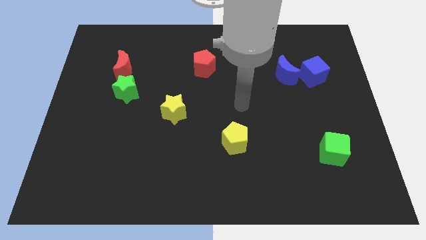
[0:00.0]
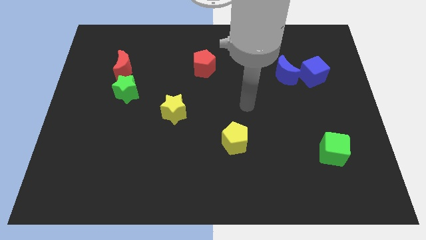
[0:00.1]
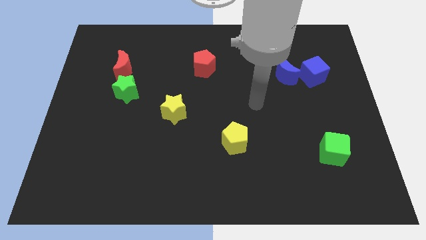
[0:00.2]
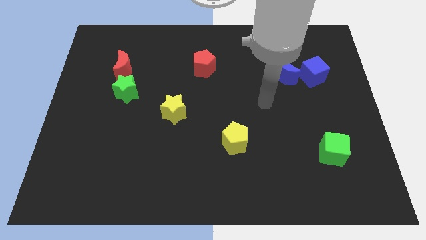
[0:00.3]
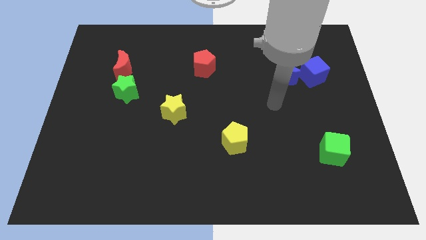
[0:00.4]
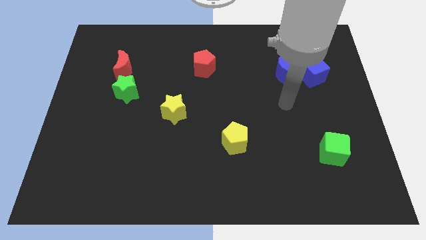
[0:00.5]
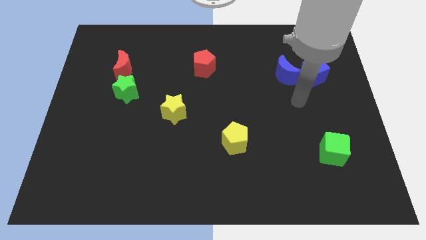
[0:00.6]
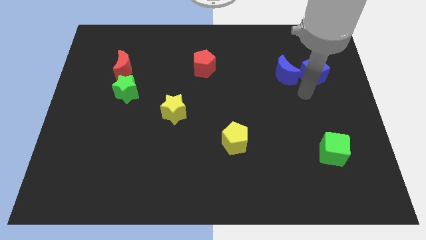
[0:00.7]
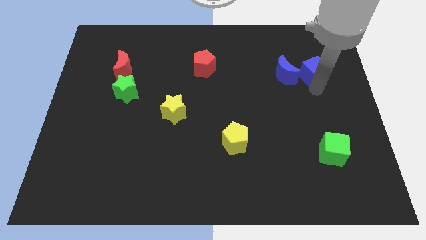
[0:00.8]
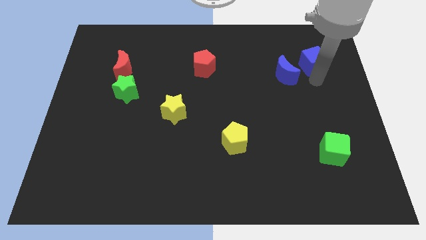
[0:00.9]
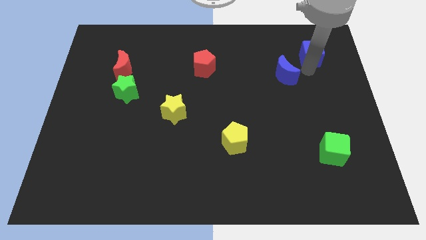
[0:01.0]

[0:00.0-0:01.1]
separate the blue moon from the blue cube

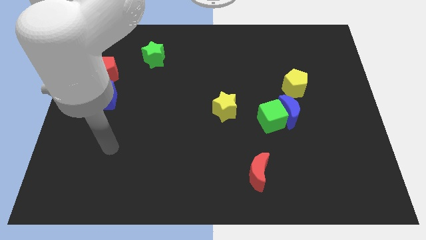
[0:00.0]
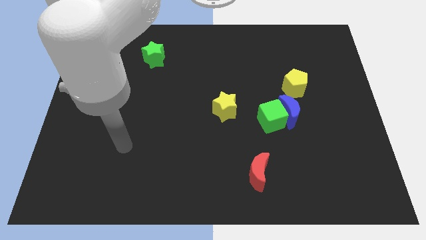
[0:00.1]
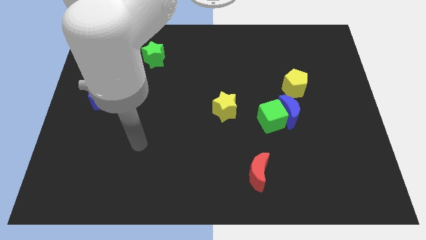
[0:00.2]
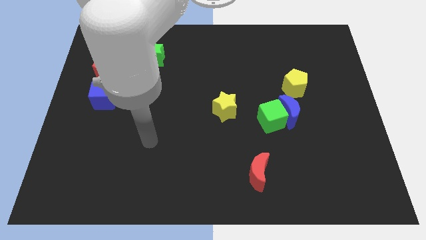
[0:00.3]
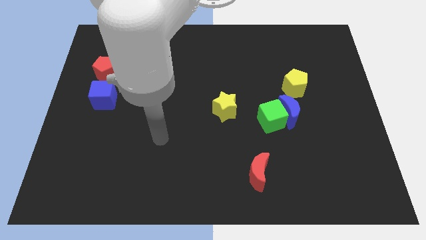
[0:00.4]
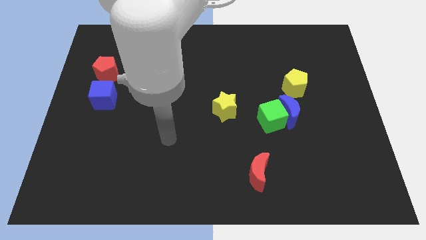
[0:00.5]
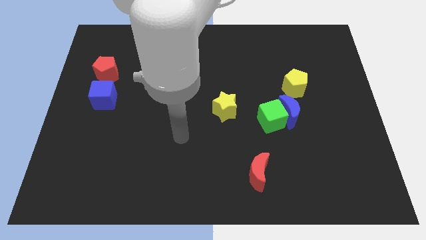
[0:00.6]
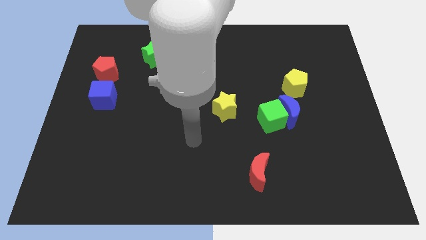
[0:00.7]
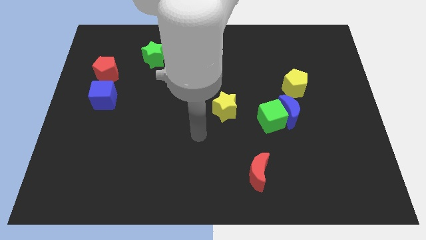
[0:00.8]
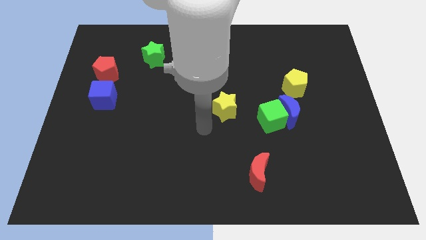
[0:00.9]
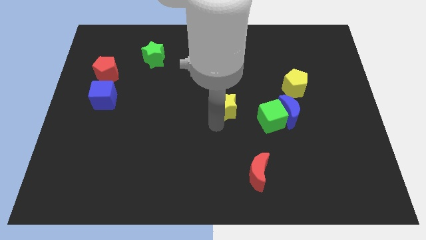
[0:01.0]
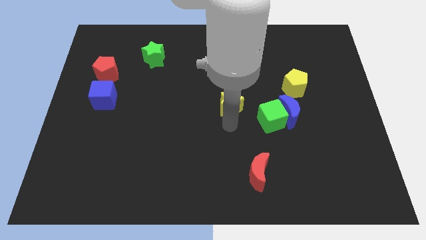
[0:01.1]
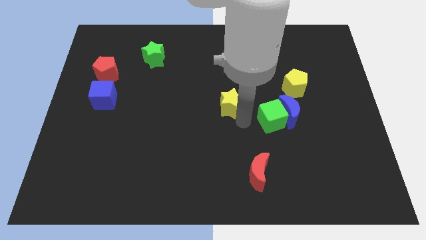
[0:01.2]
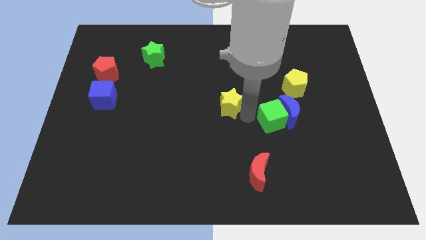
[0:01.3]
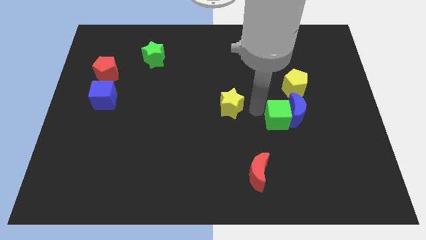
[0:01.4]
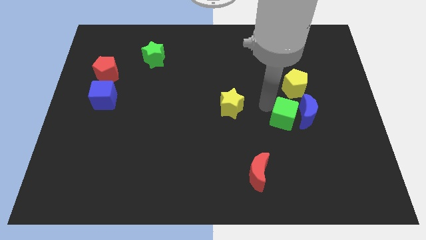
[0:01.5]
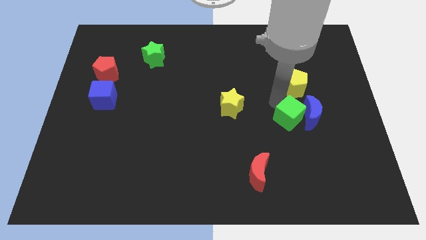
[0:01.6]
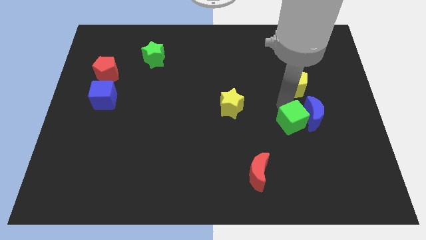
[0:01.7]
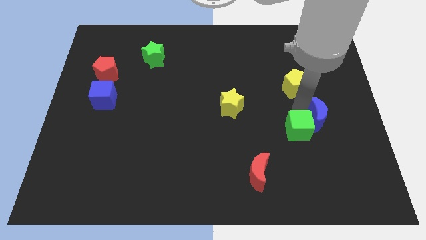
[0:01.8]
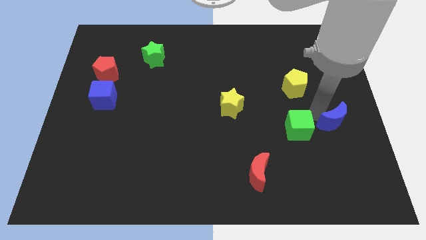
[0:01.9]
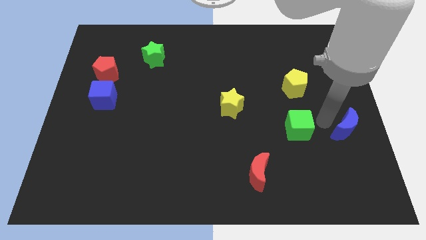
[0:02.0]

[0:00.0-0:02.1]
move the green cube away from the blue moon

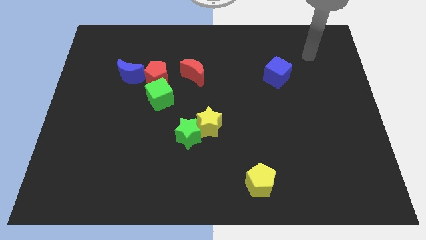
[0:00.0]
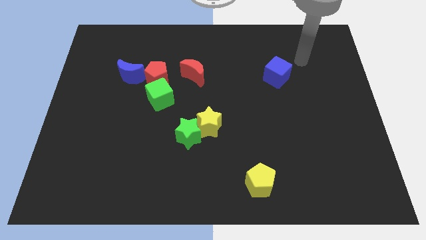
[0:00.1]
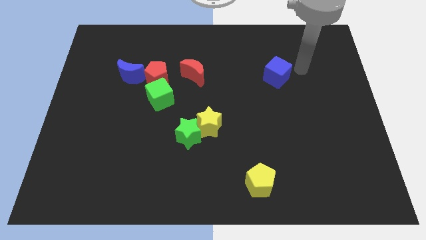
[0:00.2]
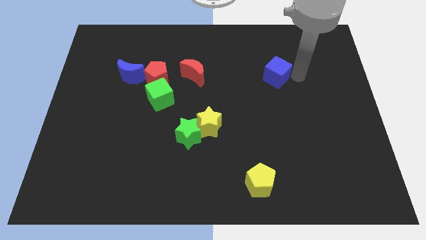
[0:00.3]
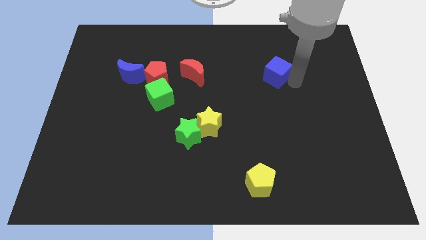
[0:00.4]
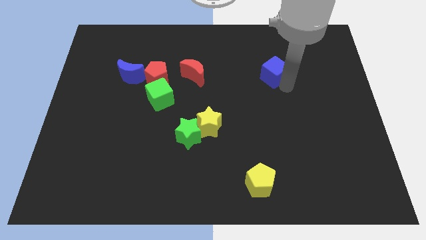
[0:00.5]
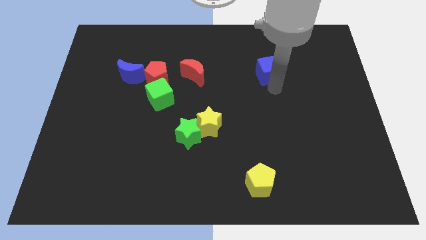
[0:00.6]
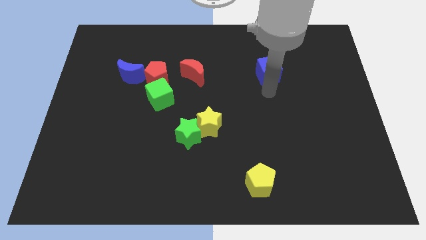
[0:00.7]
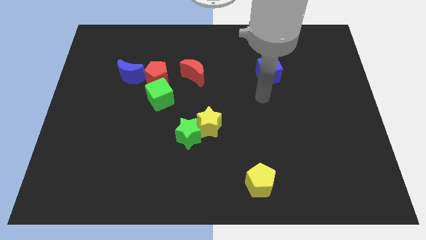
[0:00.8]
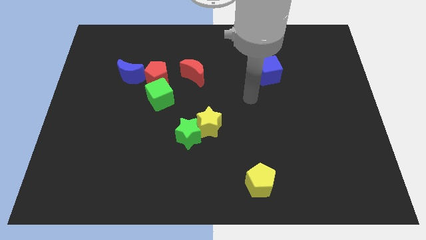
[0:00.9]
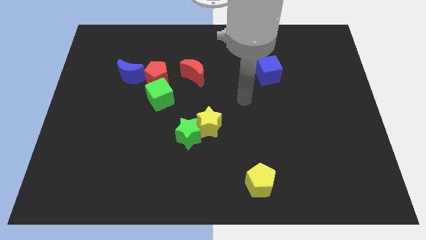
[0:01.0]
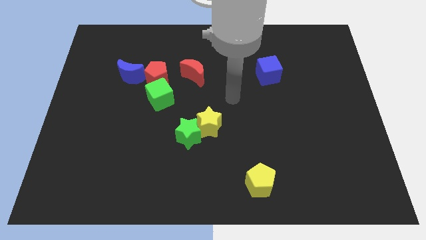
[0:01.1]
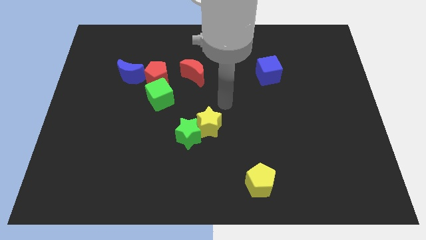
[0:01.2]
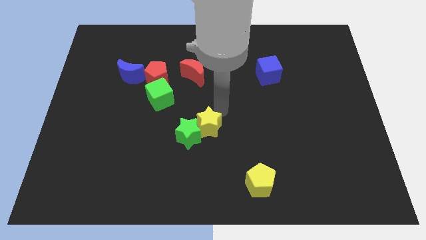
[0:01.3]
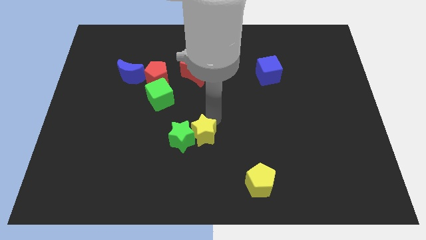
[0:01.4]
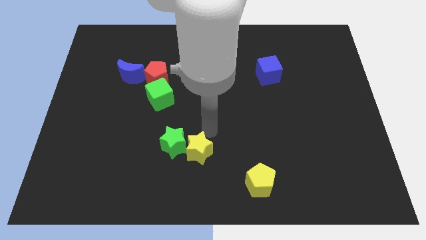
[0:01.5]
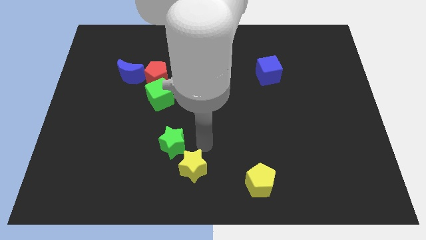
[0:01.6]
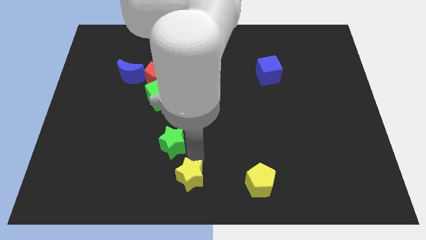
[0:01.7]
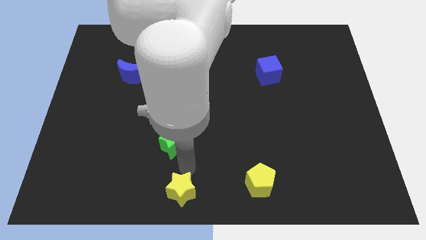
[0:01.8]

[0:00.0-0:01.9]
pull the green star apart from the yellow star

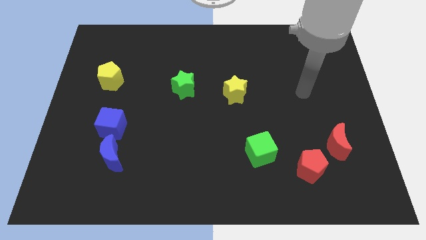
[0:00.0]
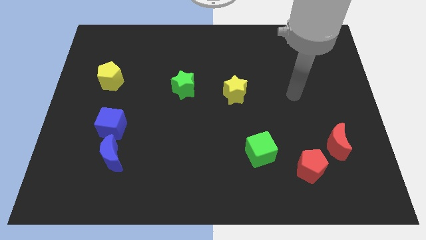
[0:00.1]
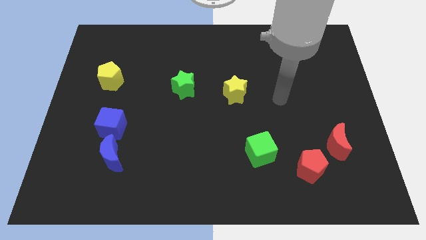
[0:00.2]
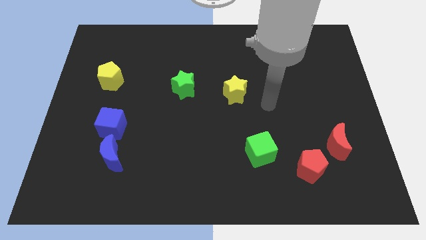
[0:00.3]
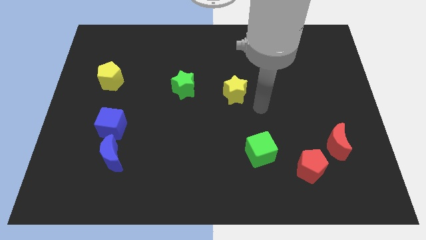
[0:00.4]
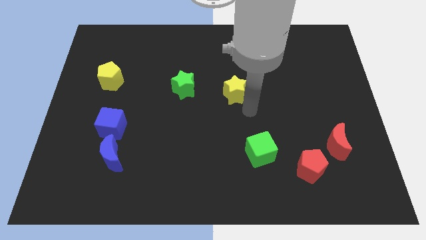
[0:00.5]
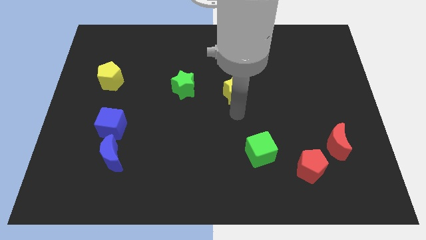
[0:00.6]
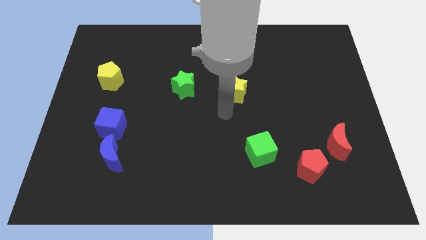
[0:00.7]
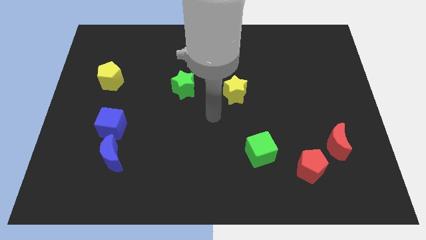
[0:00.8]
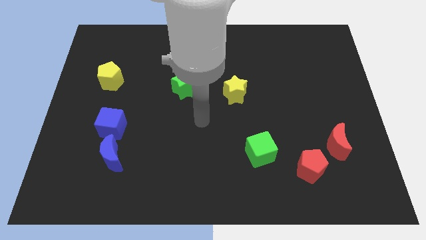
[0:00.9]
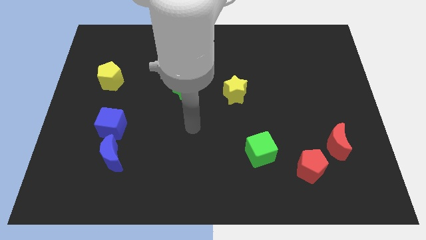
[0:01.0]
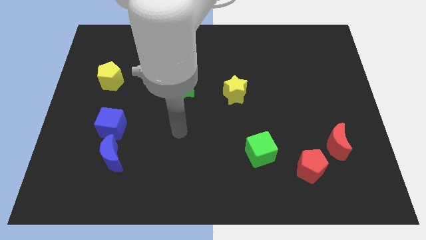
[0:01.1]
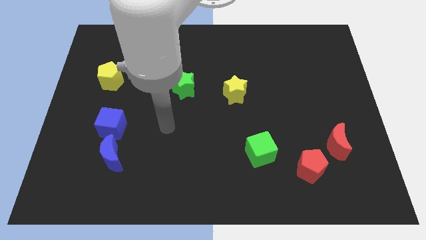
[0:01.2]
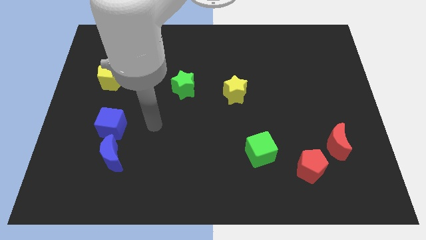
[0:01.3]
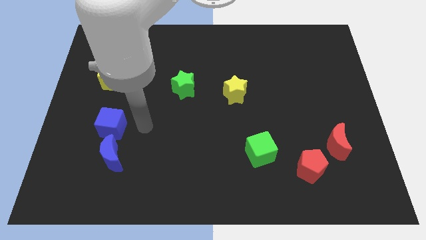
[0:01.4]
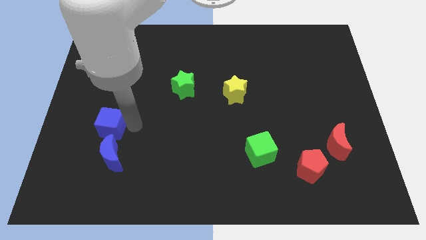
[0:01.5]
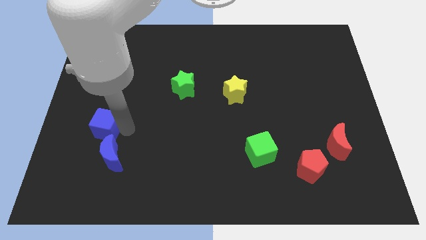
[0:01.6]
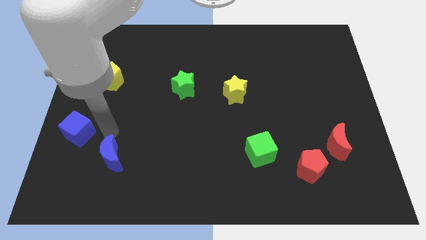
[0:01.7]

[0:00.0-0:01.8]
move the blue moon away from the blue cube

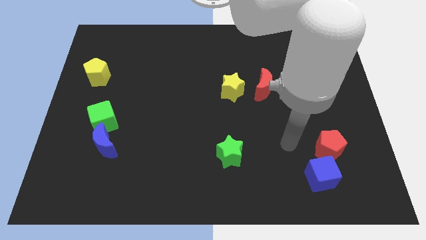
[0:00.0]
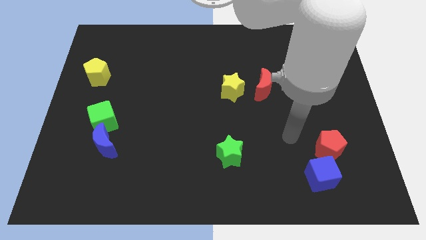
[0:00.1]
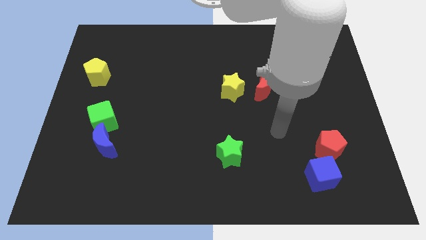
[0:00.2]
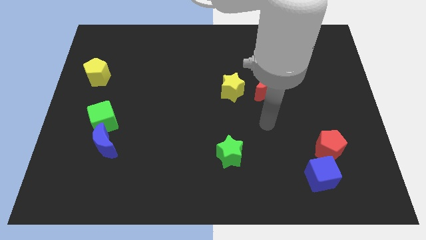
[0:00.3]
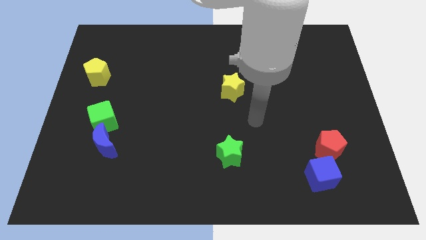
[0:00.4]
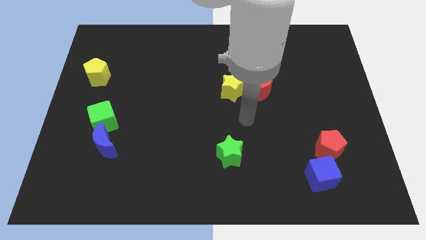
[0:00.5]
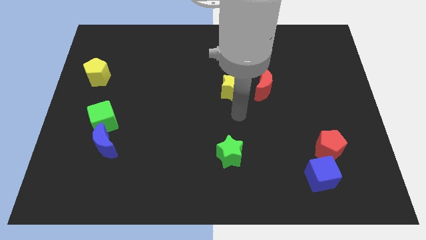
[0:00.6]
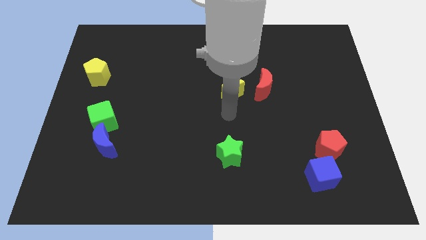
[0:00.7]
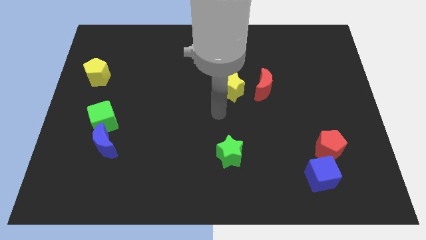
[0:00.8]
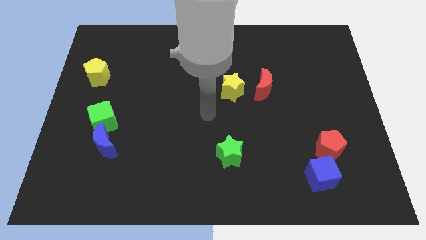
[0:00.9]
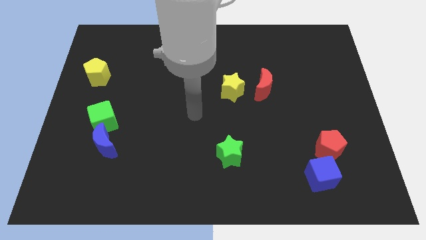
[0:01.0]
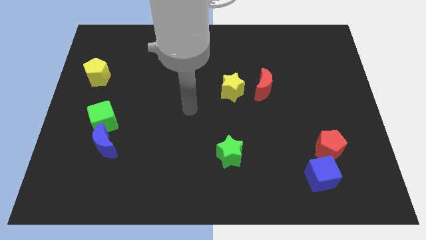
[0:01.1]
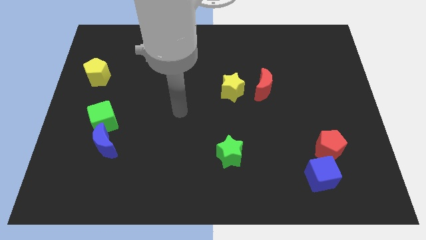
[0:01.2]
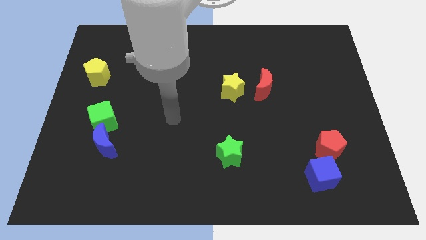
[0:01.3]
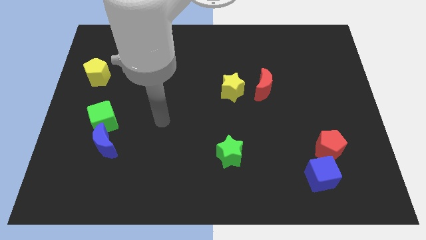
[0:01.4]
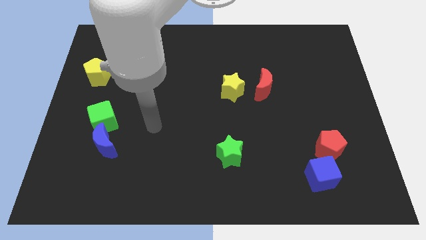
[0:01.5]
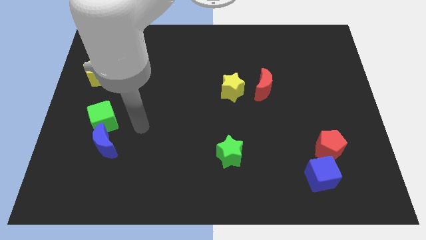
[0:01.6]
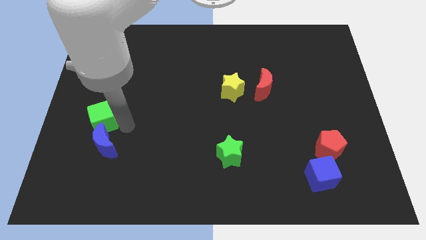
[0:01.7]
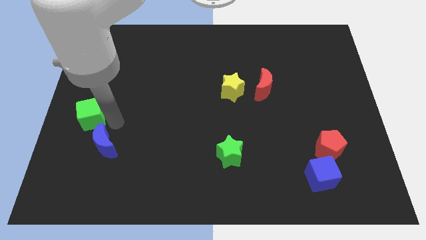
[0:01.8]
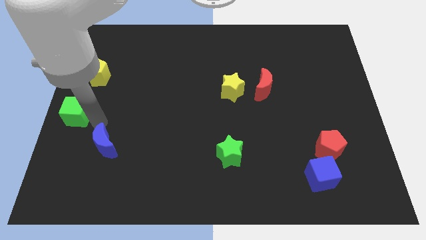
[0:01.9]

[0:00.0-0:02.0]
move the blue moon away from the green cube

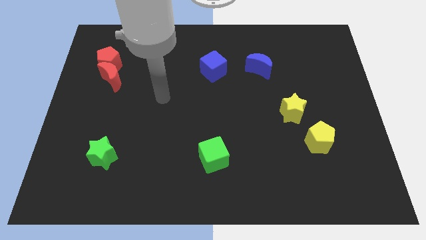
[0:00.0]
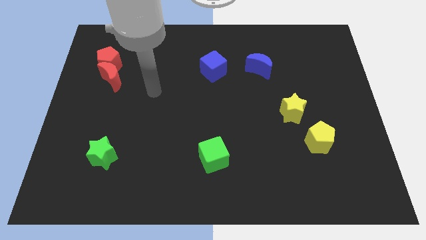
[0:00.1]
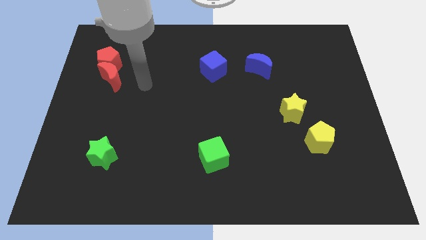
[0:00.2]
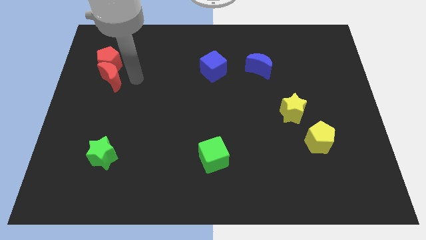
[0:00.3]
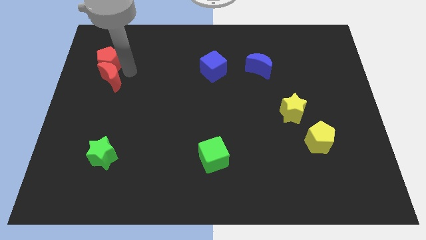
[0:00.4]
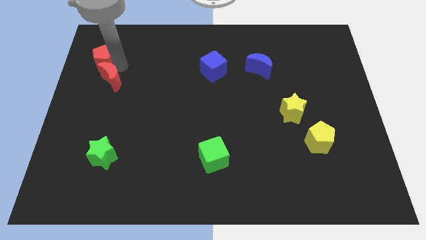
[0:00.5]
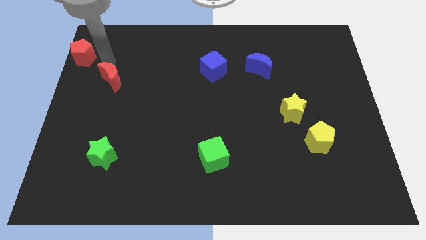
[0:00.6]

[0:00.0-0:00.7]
pull the red moon apart from the red pentagon
